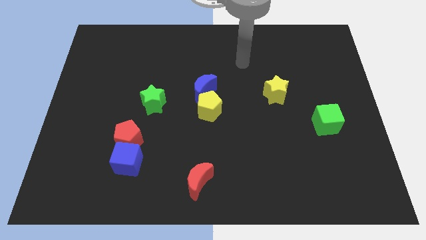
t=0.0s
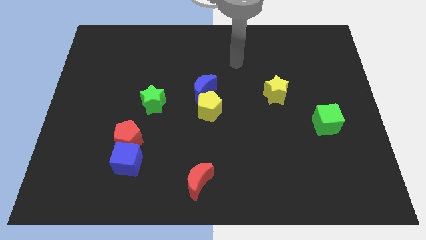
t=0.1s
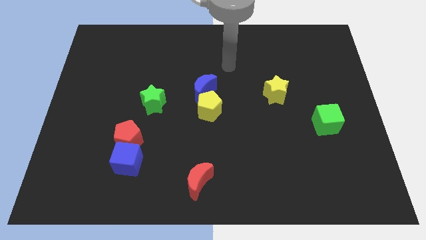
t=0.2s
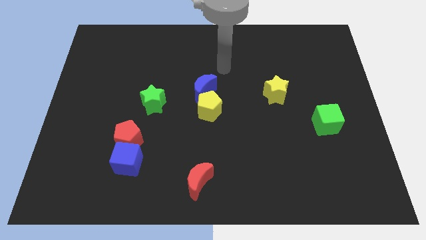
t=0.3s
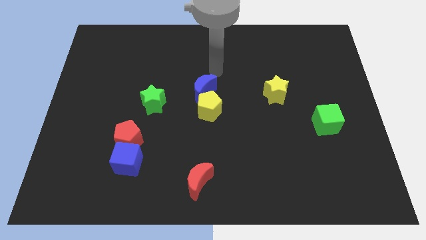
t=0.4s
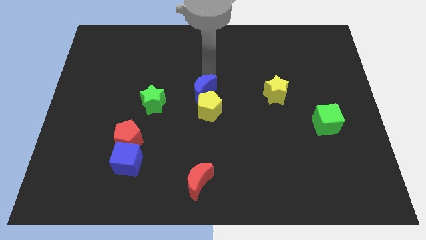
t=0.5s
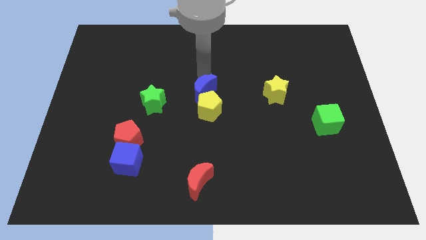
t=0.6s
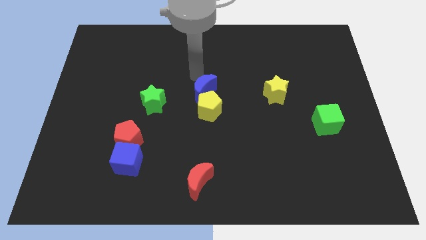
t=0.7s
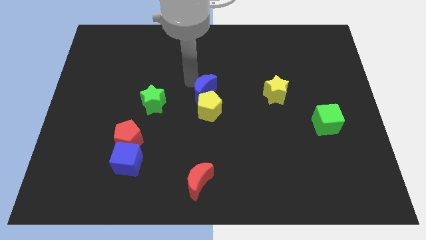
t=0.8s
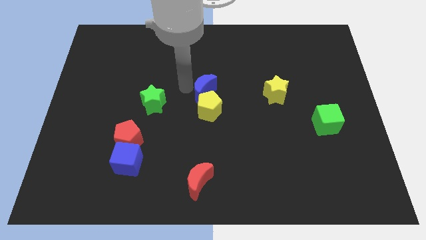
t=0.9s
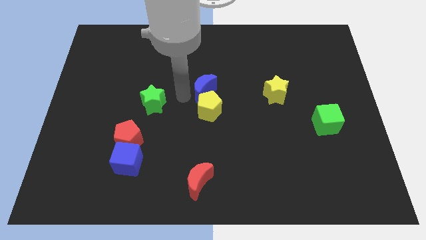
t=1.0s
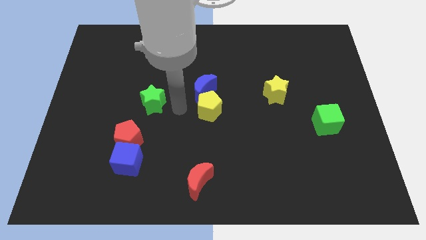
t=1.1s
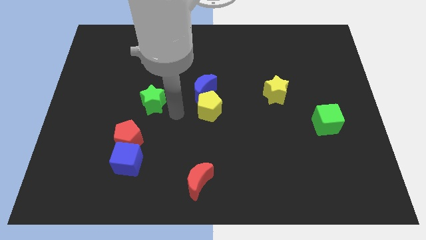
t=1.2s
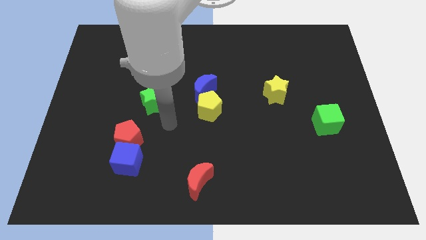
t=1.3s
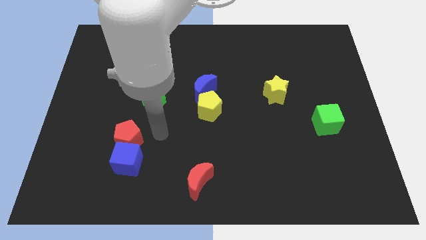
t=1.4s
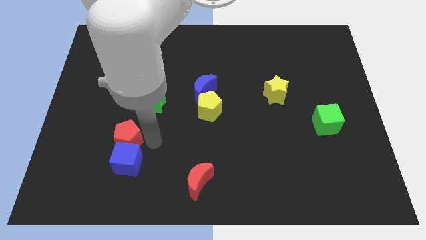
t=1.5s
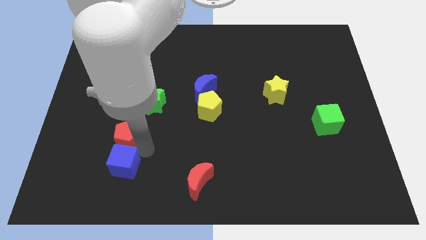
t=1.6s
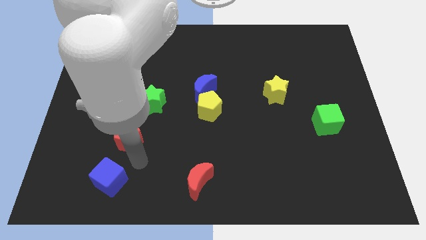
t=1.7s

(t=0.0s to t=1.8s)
pull the red pentagon apart from the blue cube

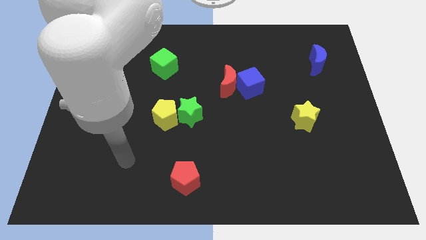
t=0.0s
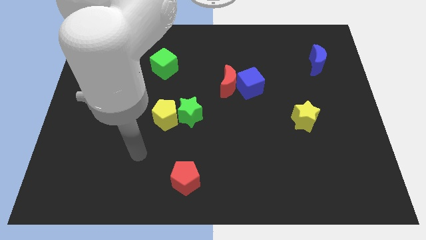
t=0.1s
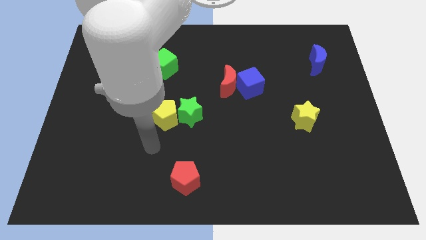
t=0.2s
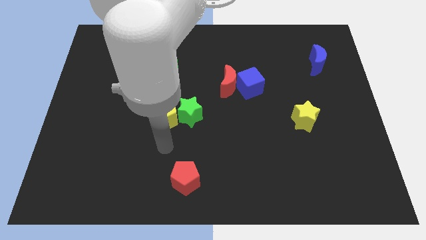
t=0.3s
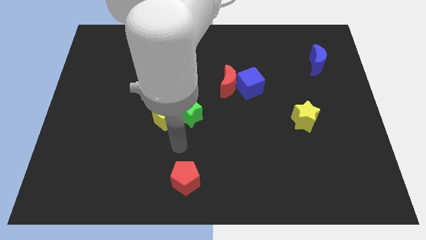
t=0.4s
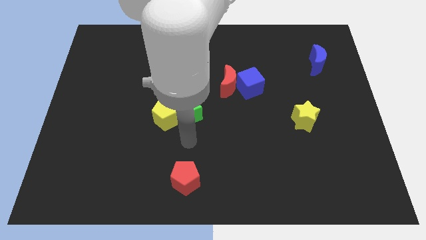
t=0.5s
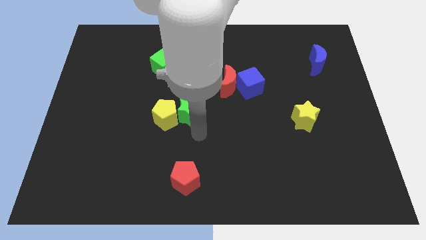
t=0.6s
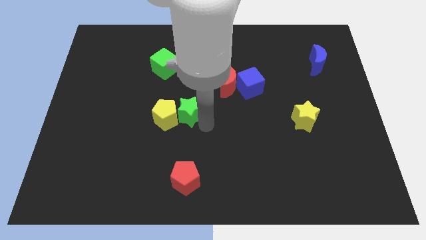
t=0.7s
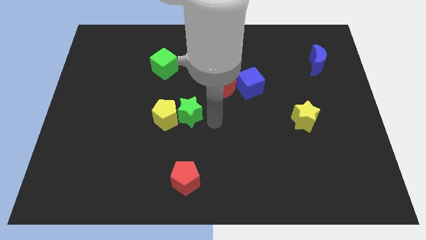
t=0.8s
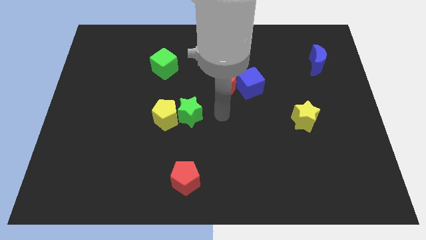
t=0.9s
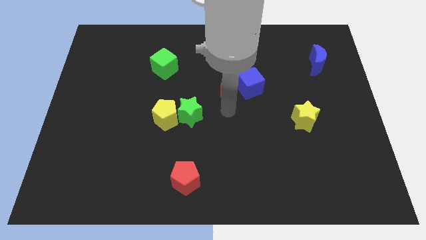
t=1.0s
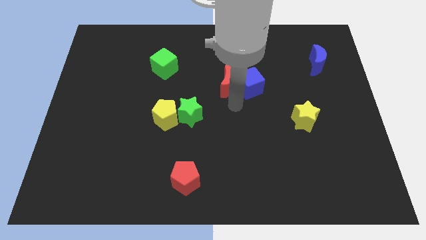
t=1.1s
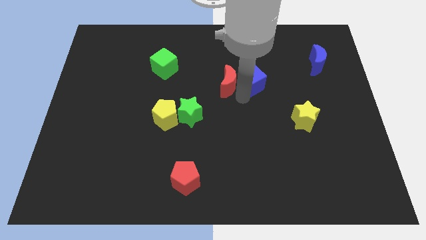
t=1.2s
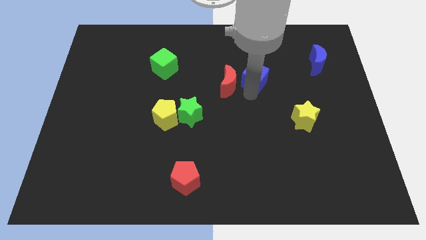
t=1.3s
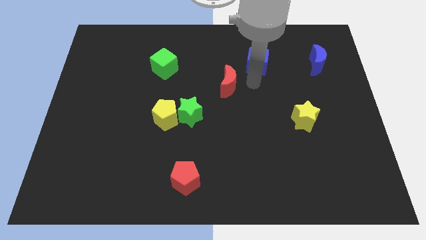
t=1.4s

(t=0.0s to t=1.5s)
separate the red moon from the blue cube

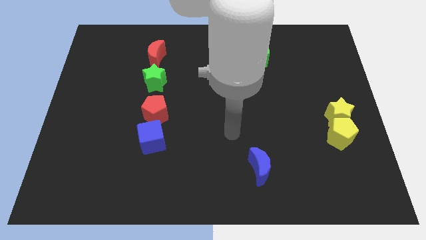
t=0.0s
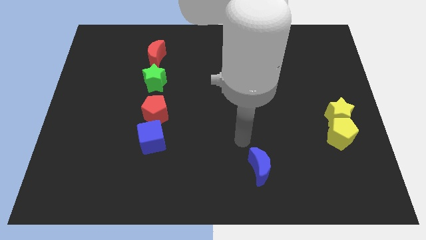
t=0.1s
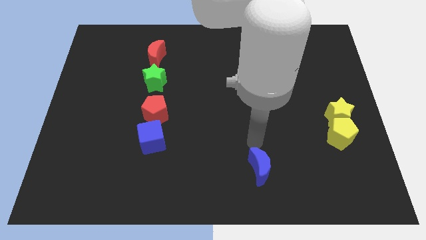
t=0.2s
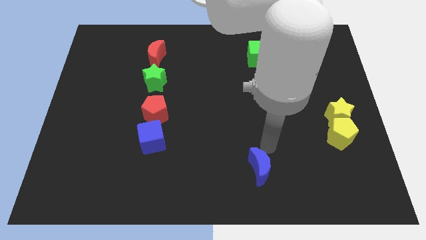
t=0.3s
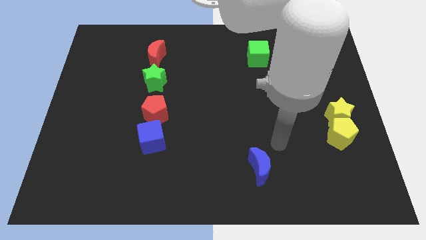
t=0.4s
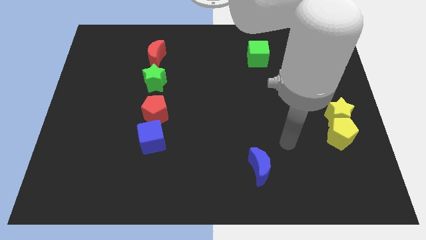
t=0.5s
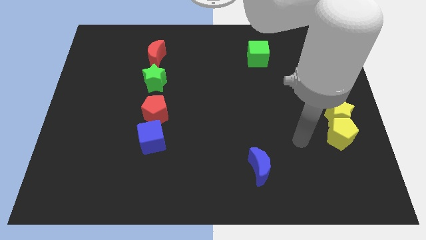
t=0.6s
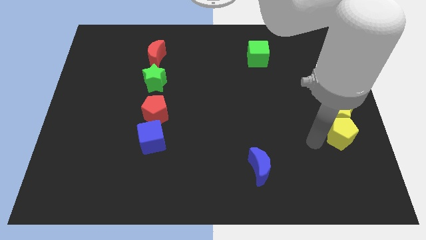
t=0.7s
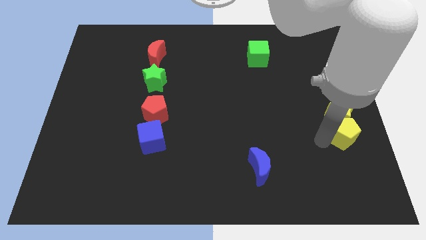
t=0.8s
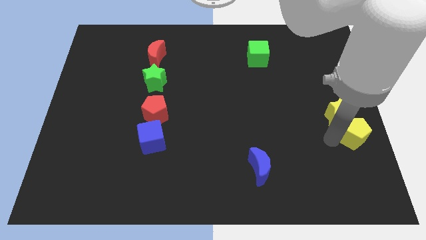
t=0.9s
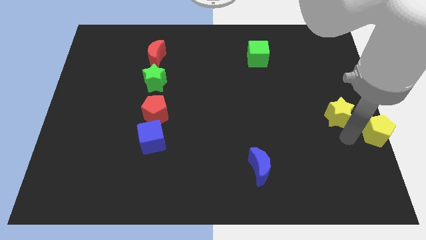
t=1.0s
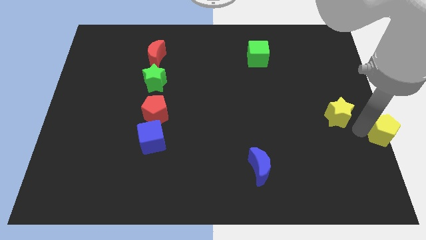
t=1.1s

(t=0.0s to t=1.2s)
pull the yellow star apart from the yellow pentagon

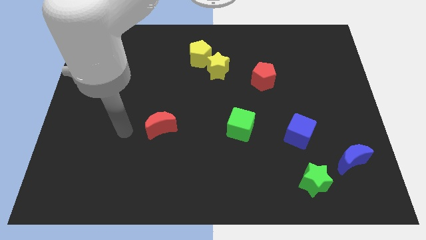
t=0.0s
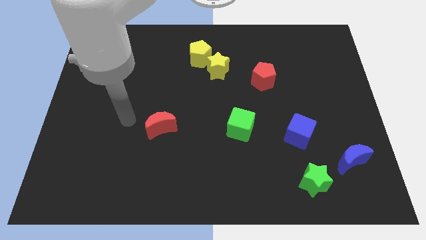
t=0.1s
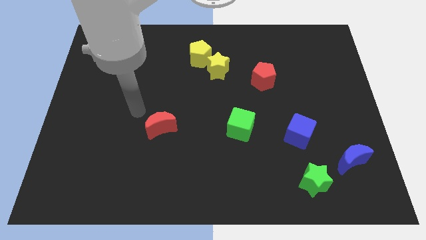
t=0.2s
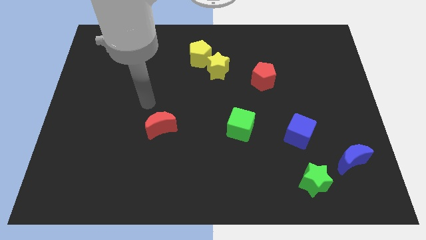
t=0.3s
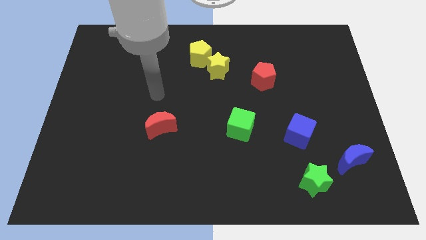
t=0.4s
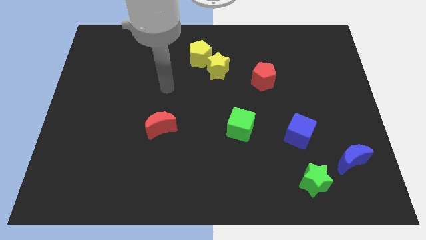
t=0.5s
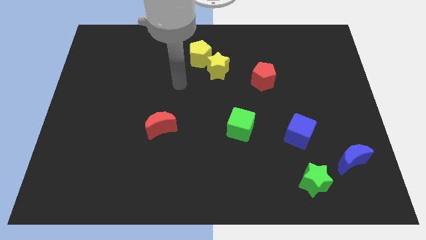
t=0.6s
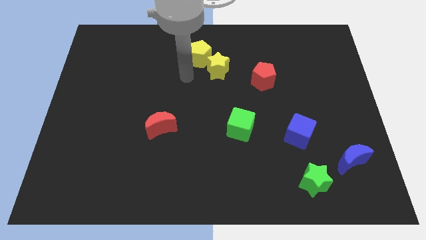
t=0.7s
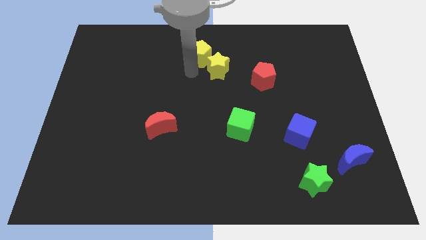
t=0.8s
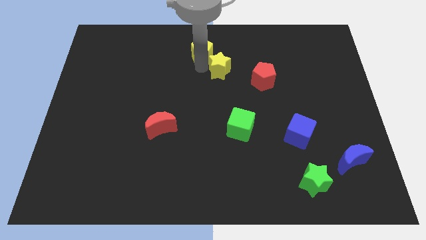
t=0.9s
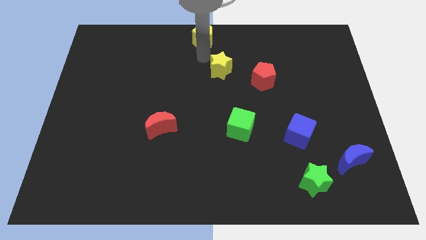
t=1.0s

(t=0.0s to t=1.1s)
separate the yellow star from the yellow pentagon

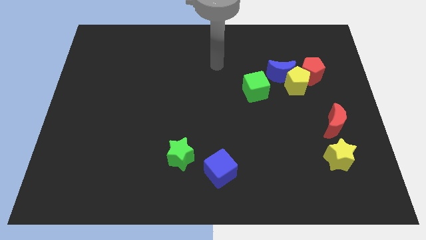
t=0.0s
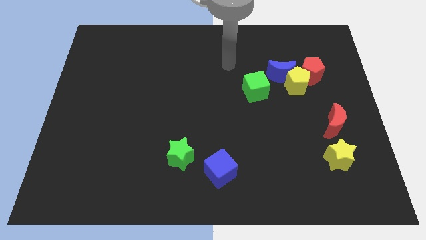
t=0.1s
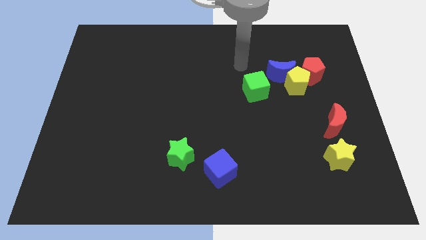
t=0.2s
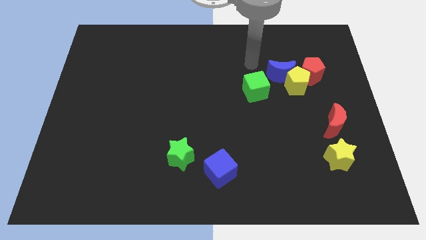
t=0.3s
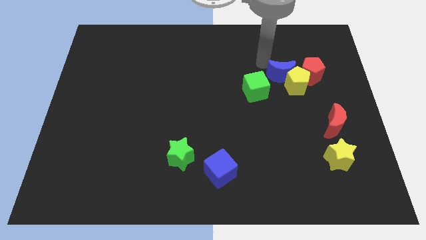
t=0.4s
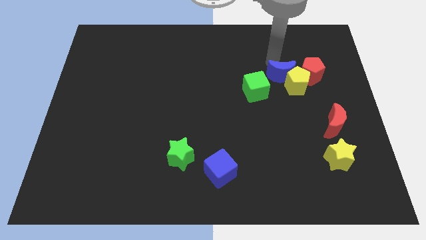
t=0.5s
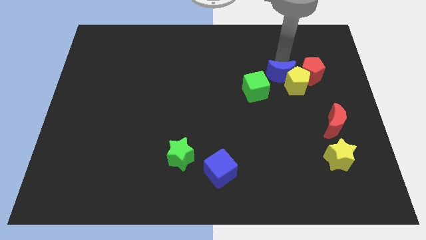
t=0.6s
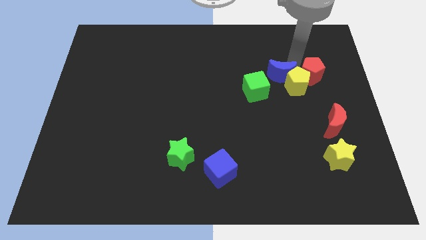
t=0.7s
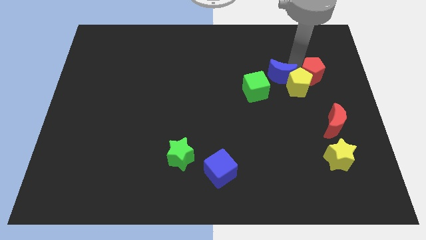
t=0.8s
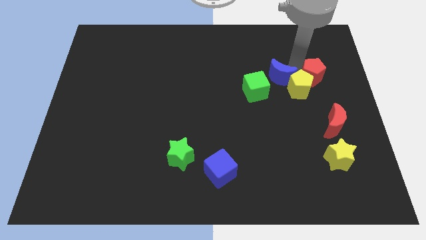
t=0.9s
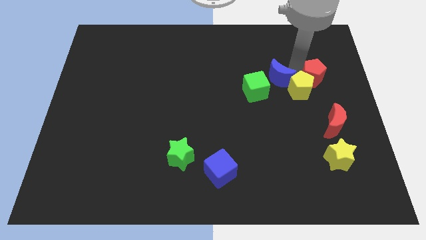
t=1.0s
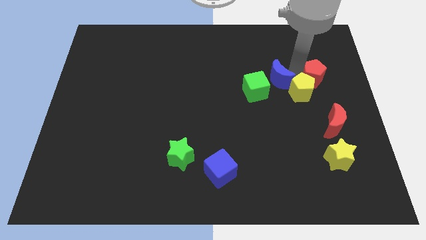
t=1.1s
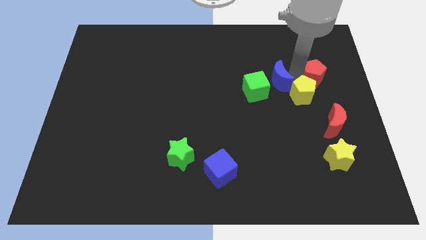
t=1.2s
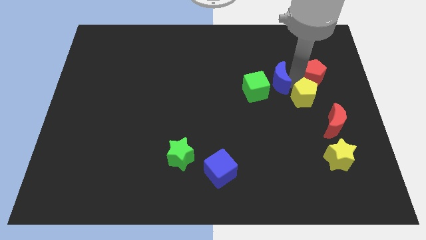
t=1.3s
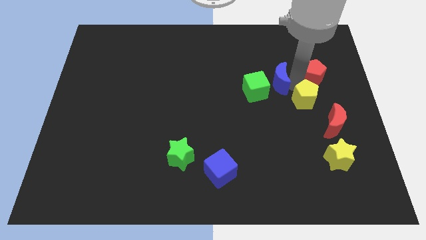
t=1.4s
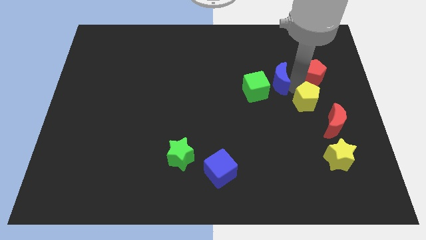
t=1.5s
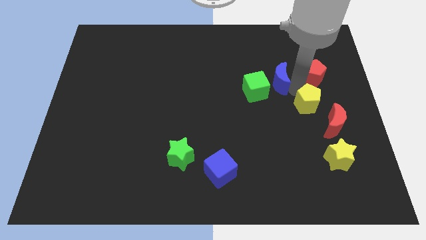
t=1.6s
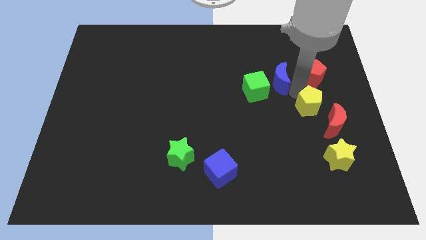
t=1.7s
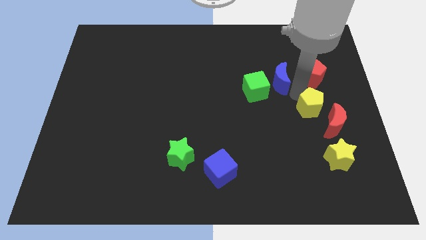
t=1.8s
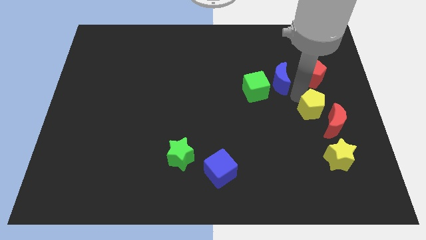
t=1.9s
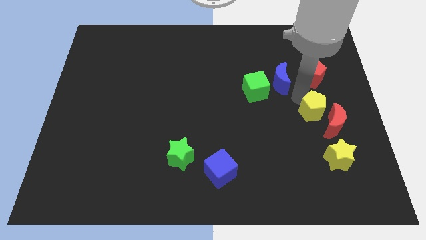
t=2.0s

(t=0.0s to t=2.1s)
separate the yellow pentagon from the blue moon and red pentagon

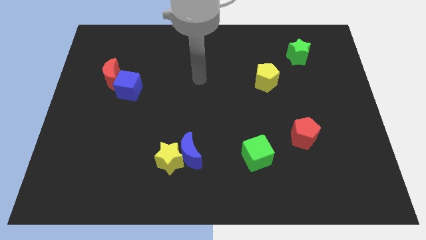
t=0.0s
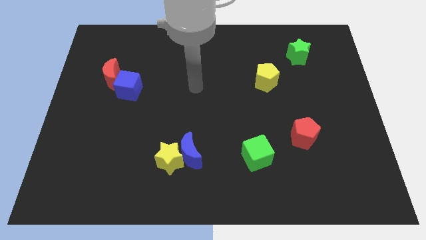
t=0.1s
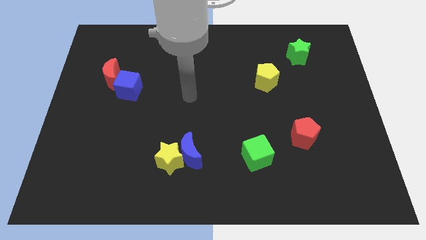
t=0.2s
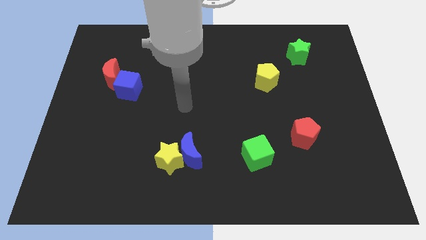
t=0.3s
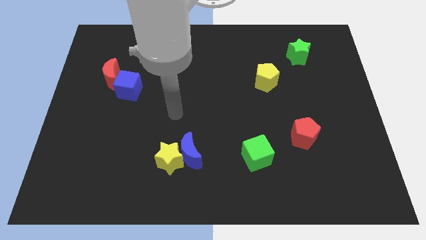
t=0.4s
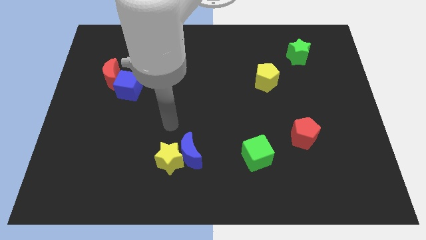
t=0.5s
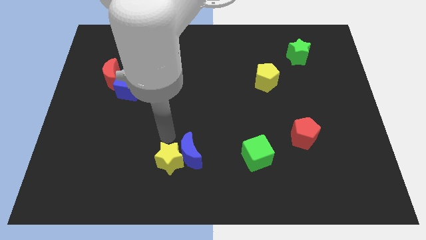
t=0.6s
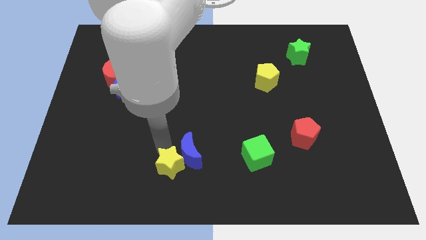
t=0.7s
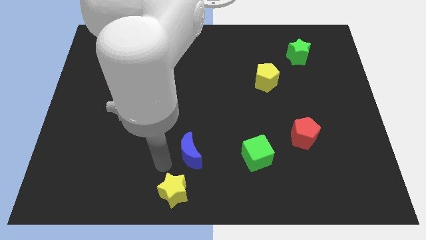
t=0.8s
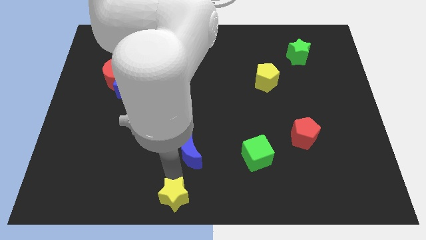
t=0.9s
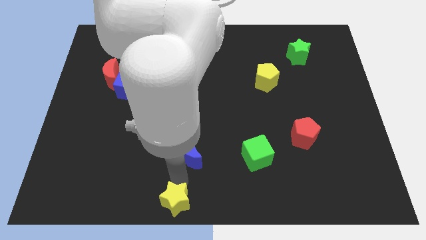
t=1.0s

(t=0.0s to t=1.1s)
move the blue moon away from the yellow star

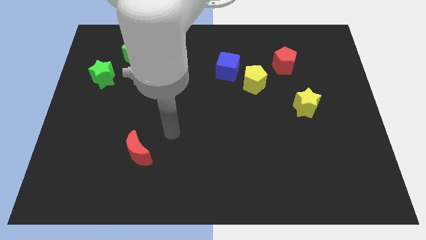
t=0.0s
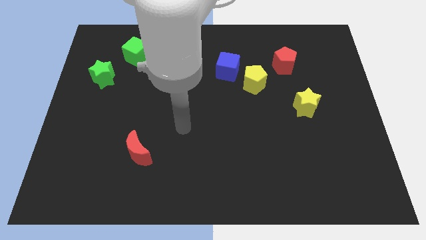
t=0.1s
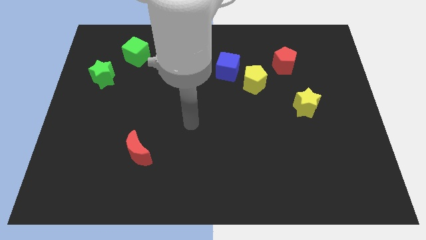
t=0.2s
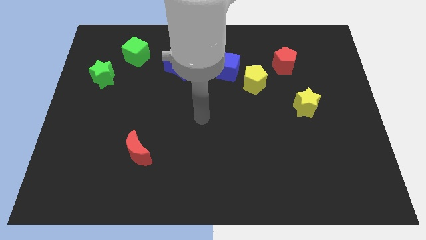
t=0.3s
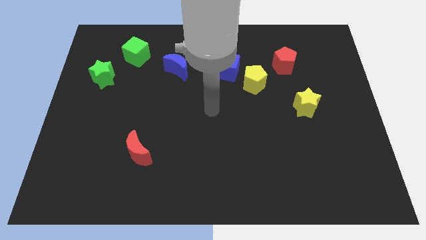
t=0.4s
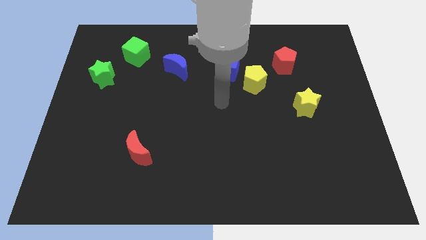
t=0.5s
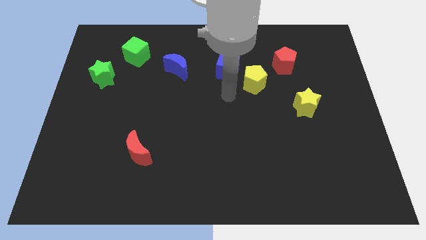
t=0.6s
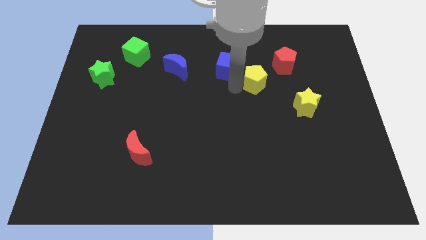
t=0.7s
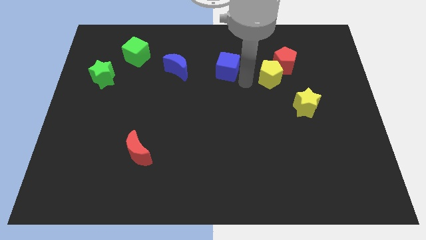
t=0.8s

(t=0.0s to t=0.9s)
move the blue cube away from the yellow pentagon
